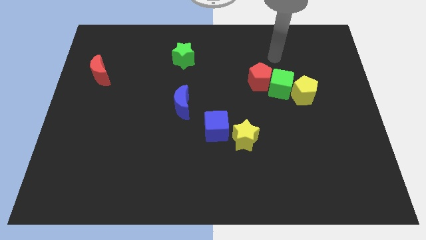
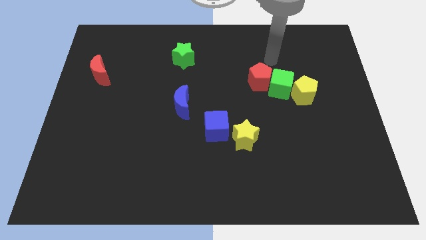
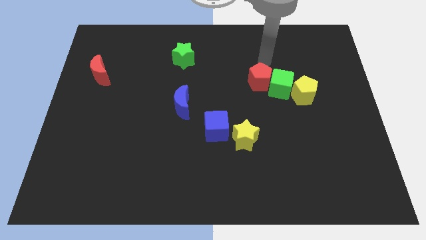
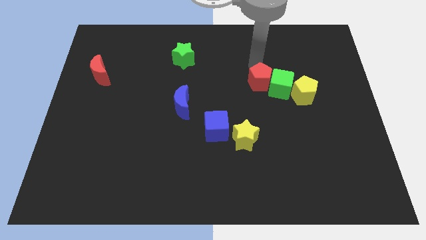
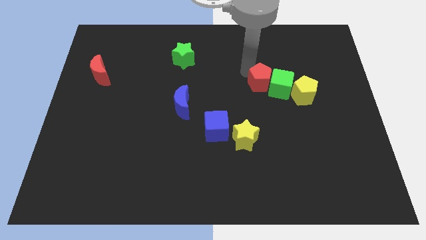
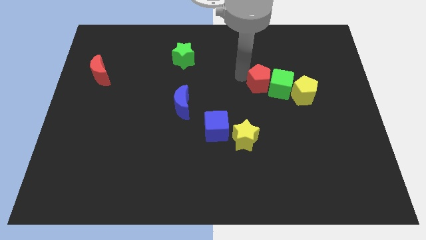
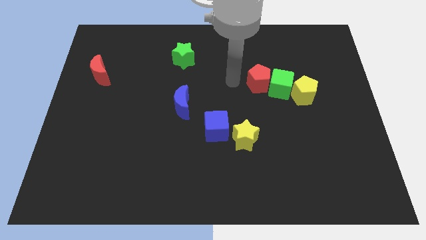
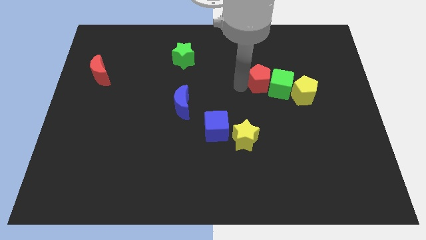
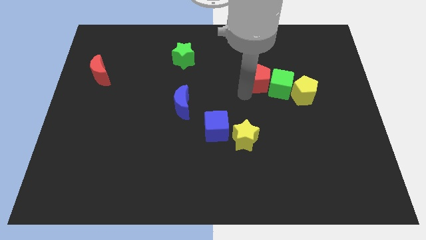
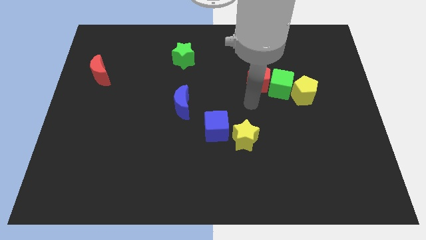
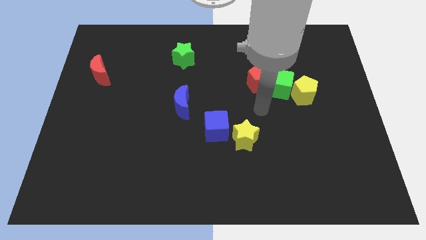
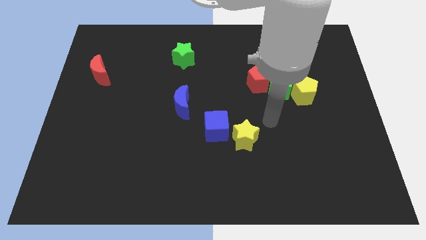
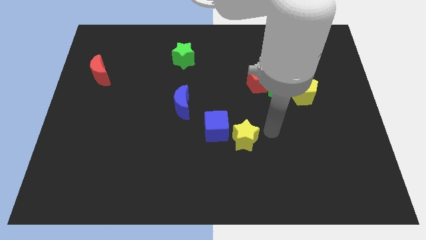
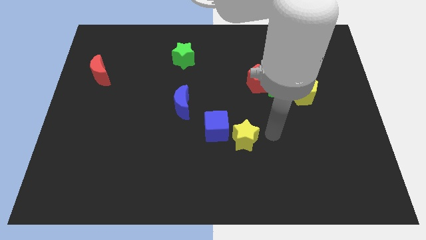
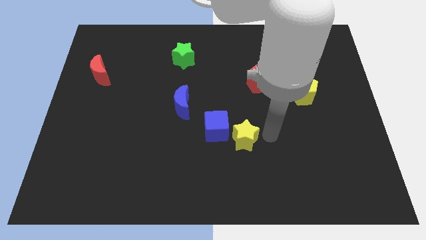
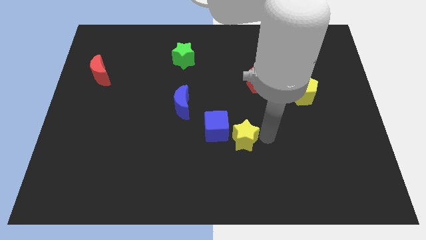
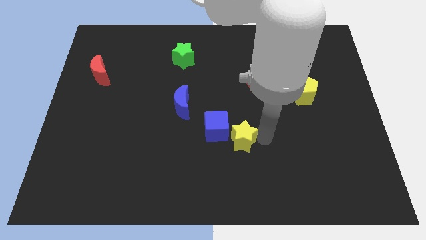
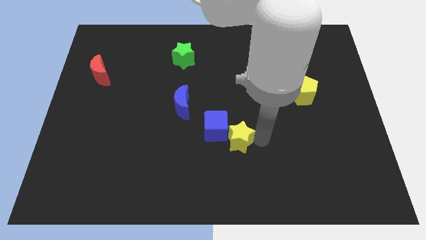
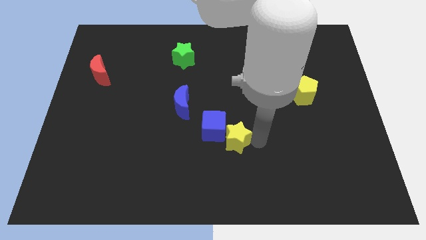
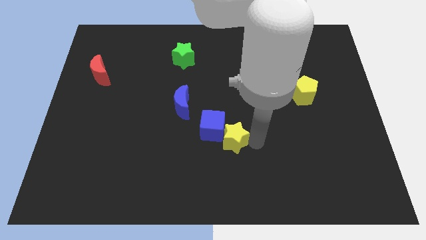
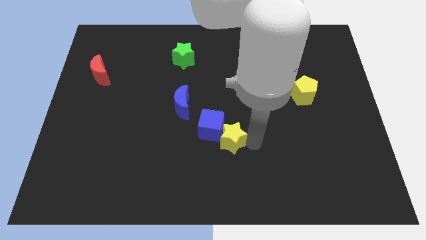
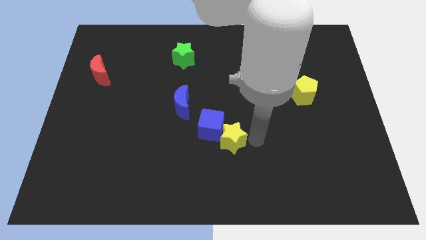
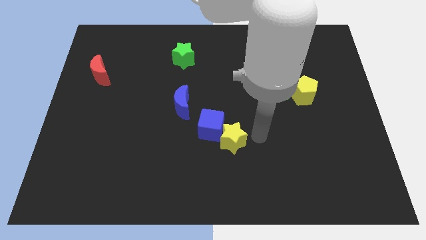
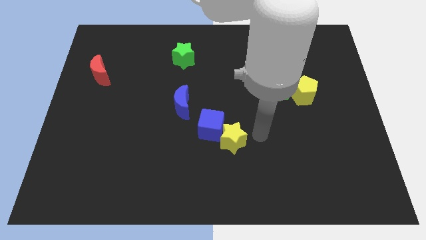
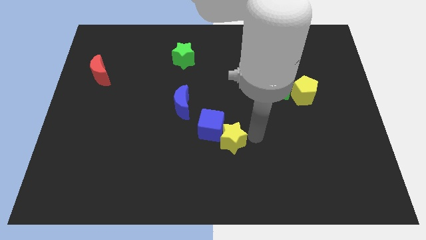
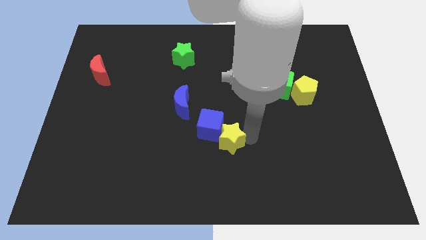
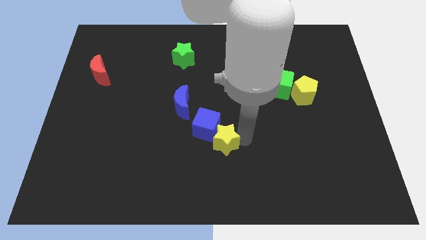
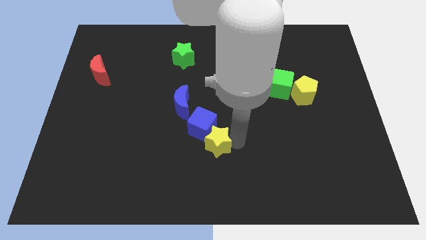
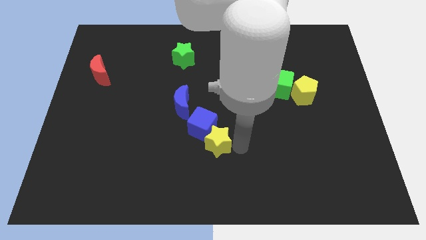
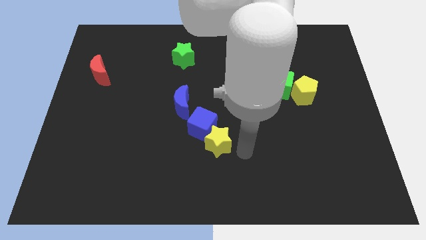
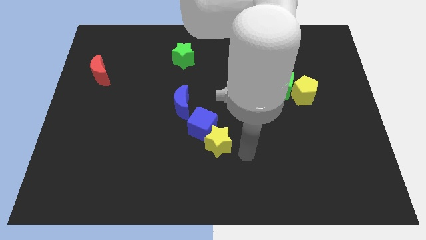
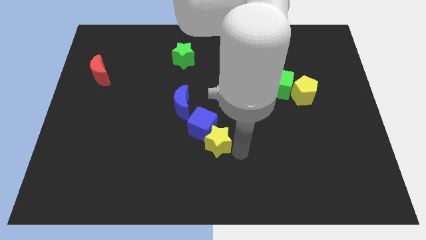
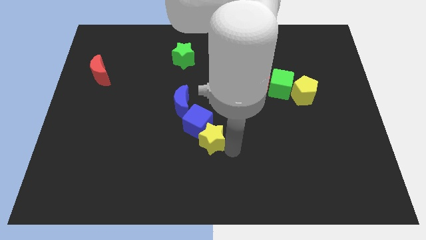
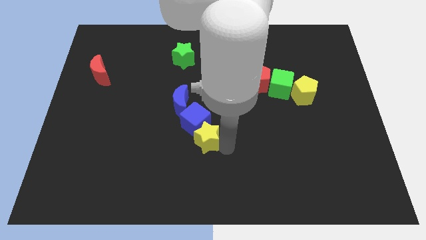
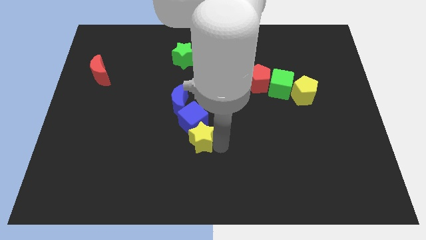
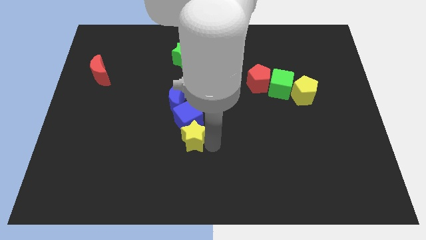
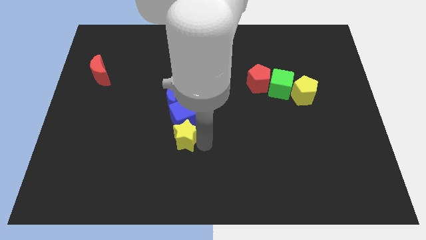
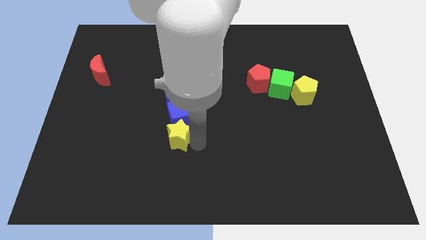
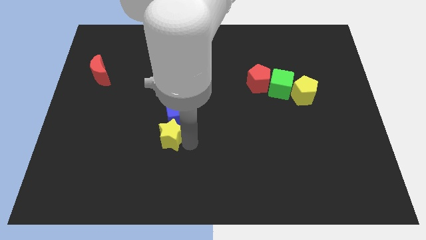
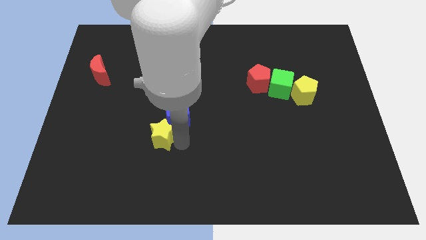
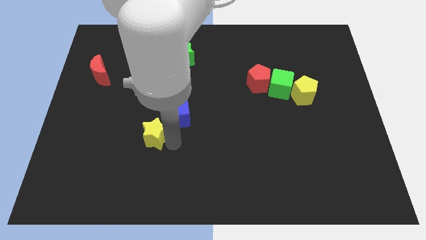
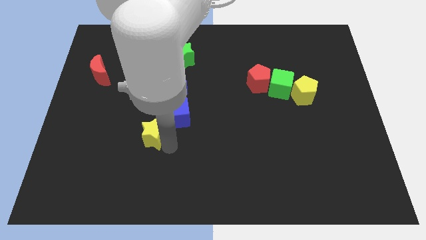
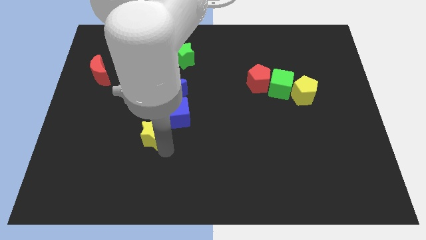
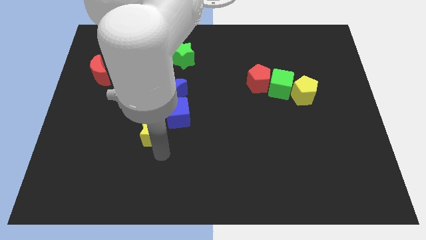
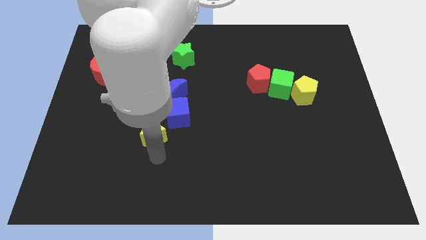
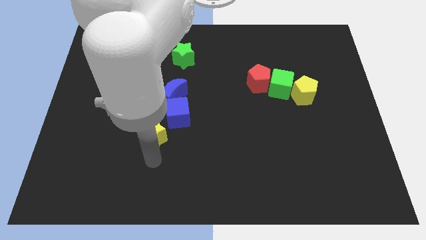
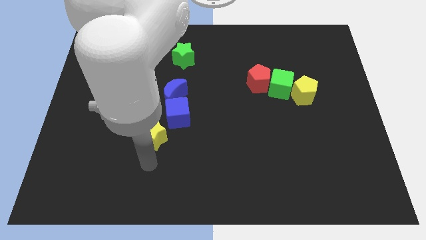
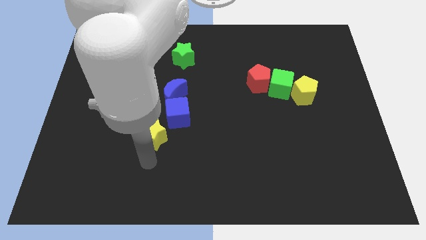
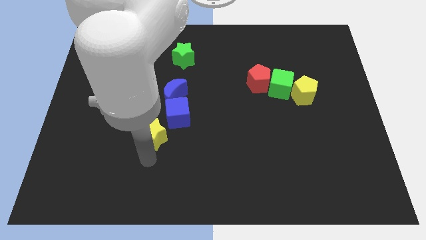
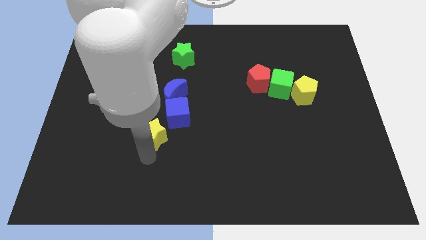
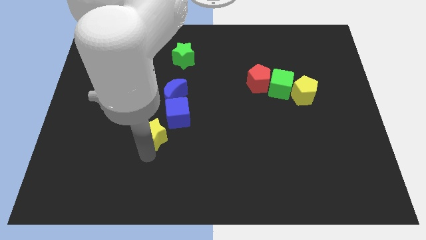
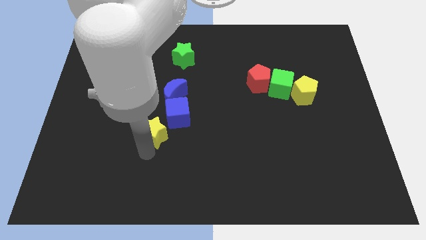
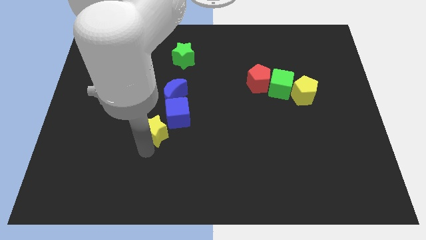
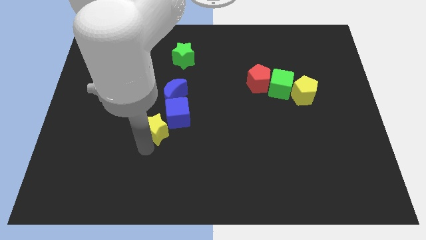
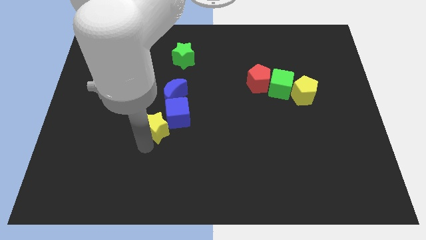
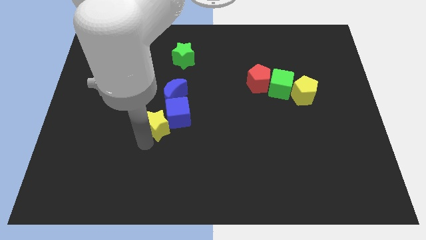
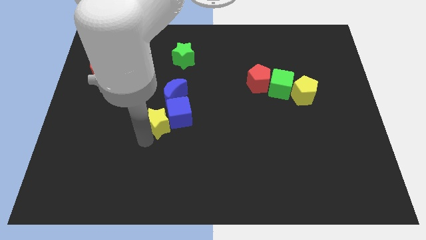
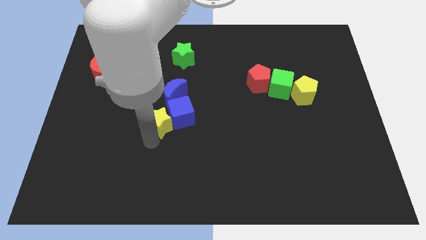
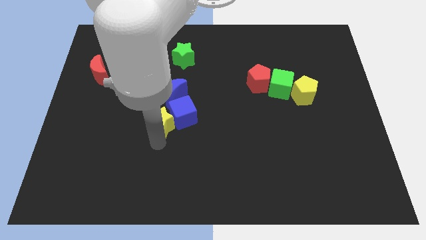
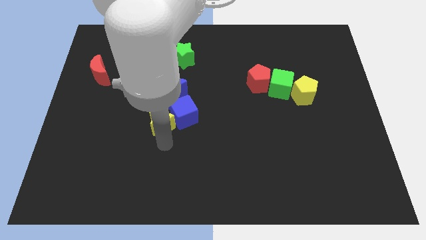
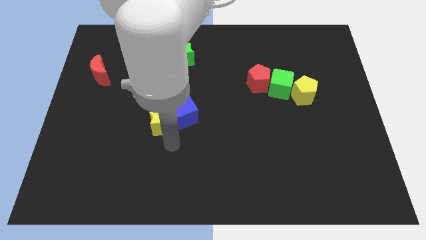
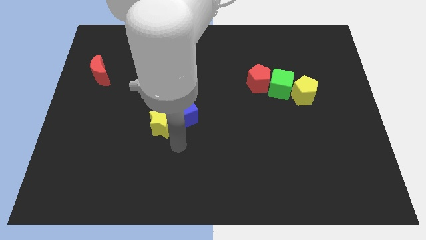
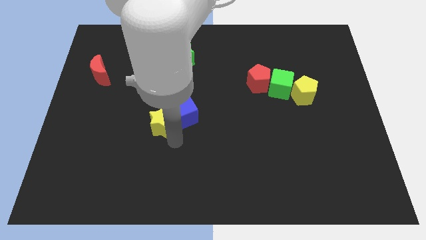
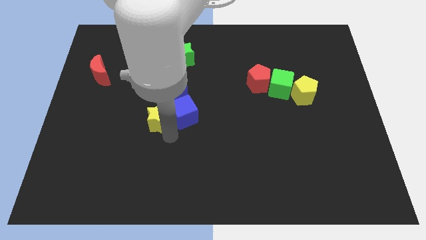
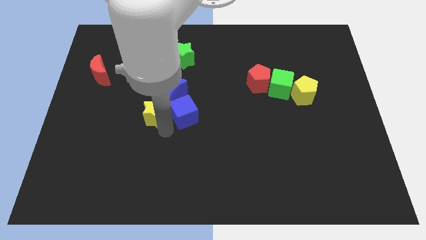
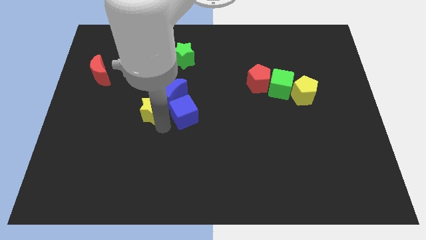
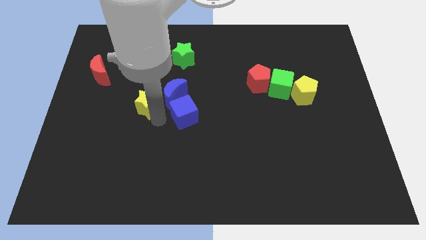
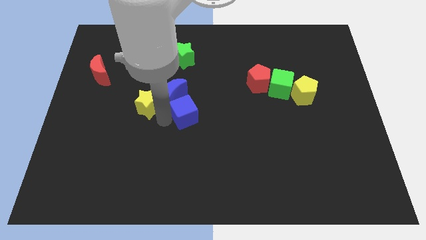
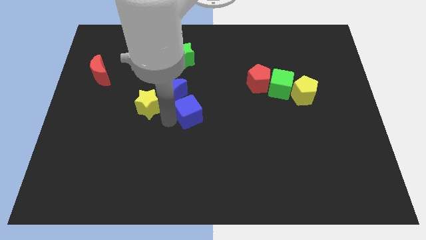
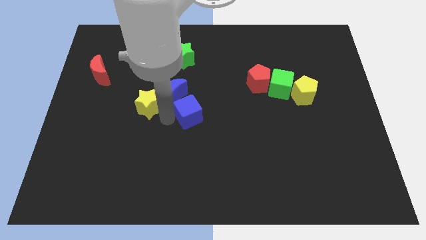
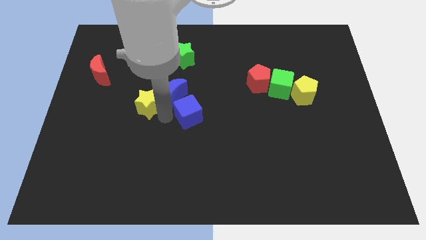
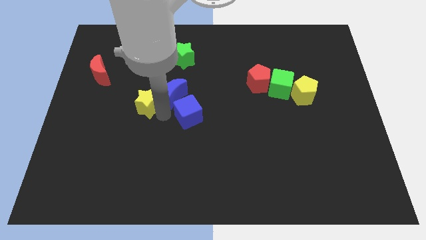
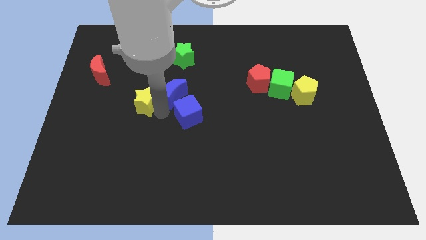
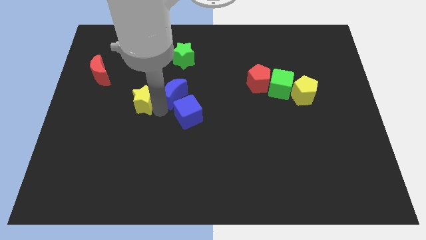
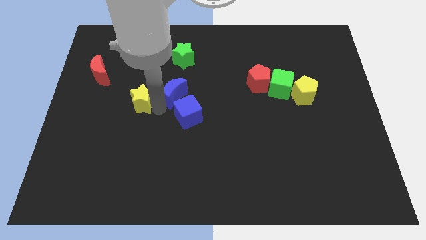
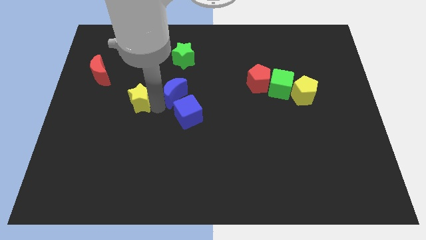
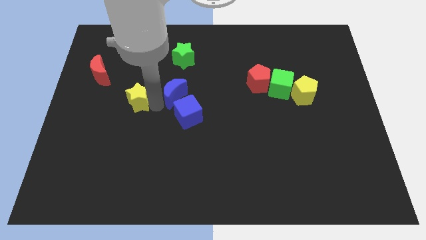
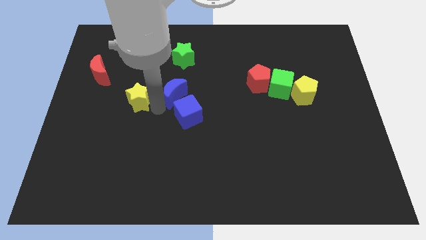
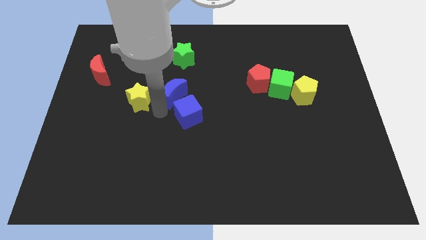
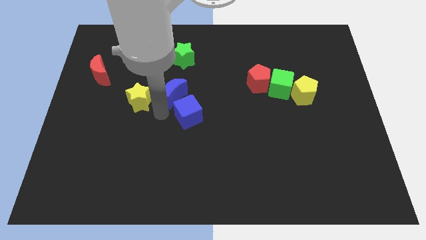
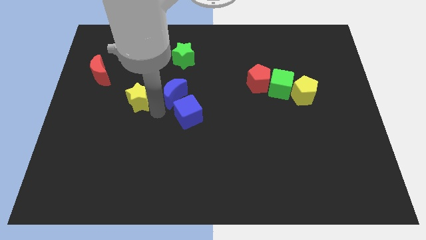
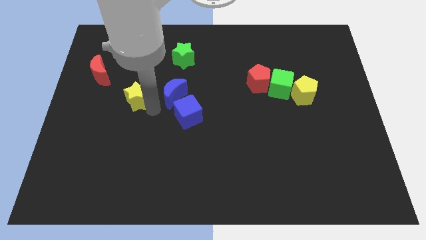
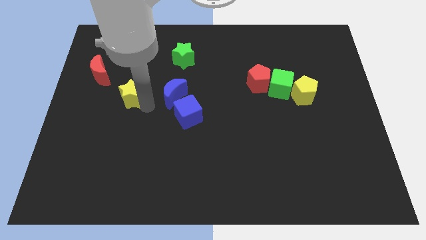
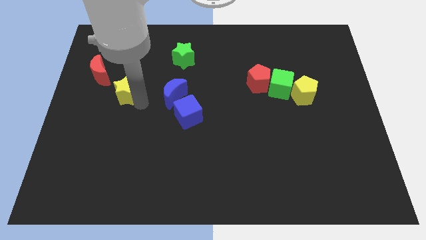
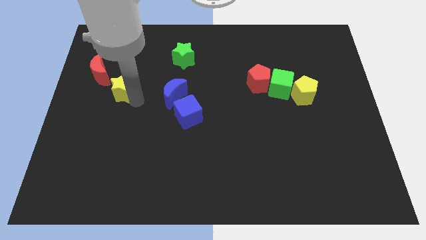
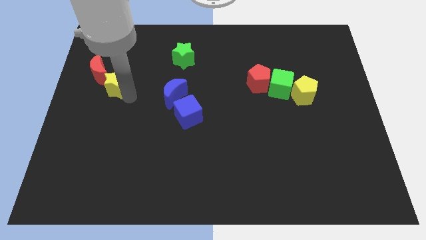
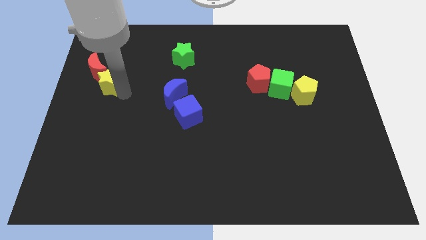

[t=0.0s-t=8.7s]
slide the yellow star next to the red moon
